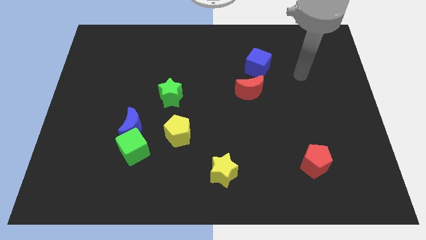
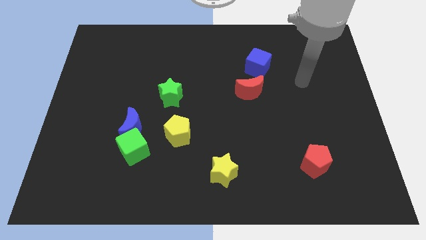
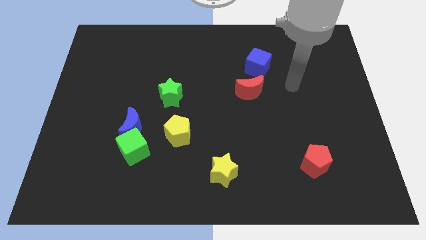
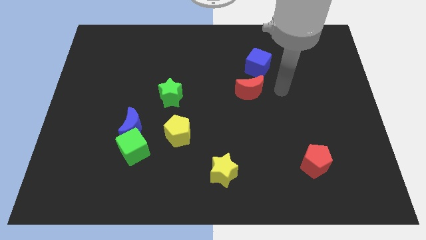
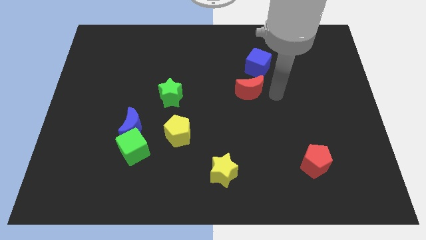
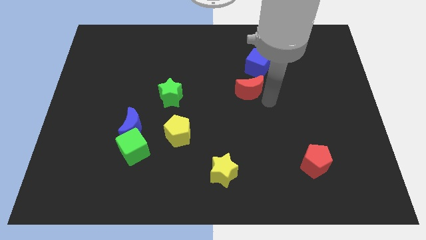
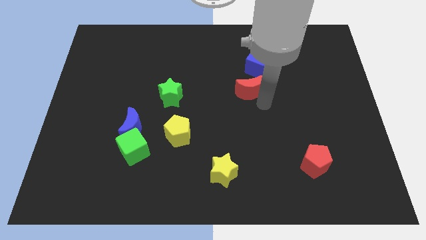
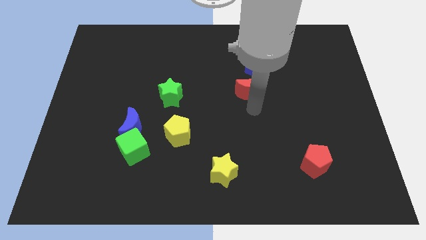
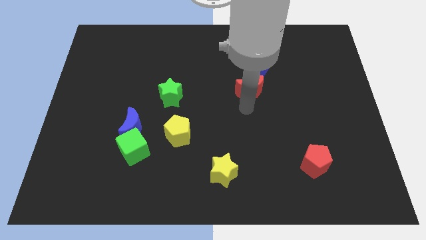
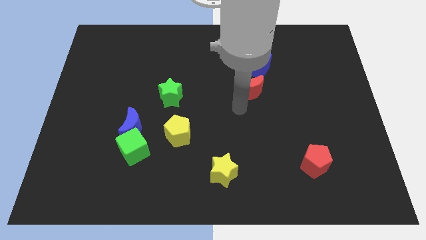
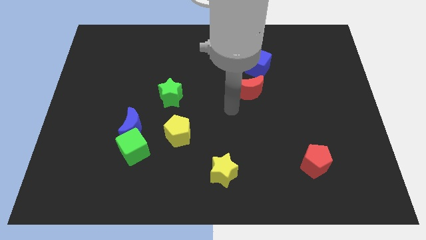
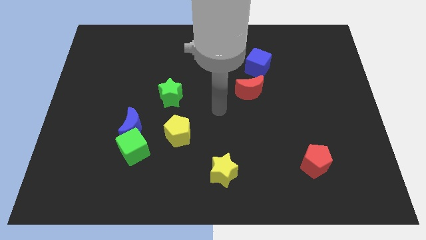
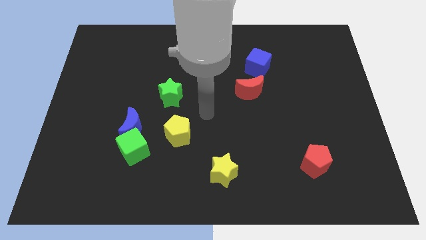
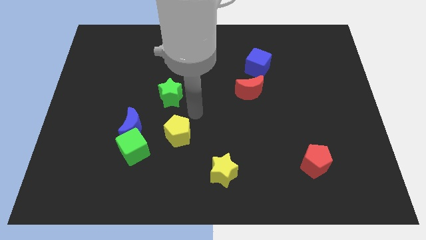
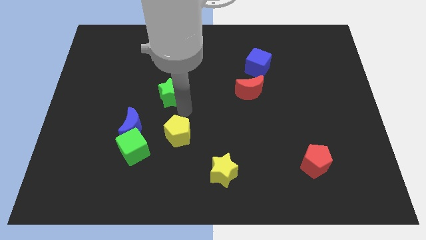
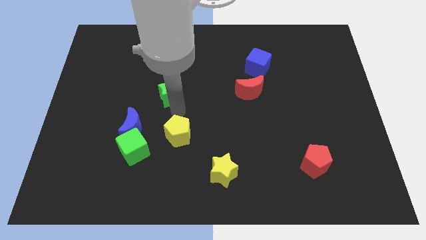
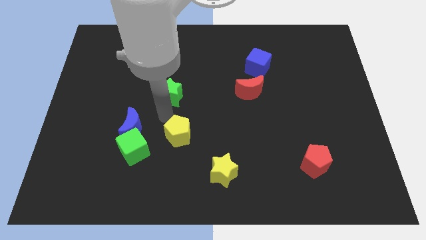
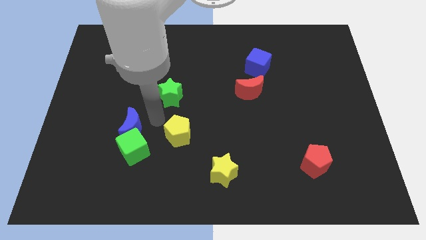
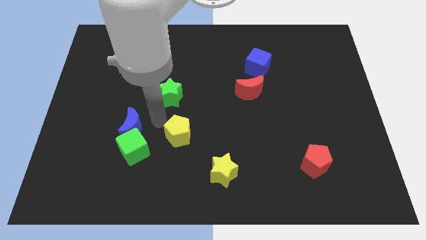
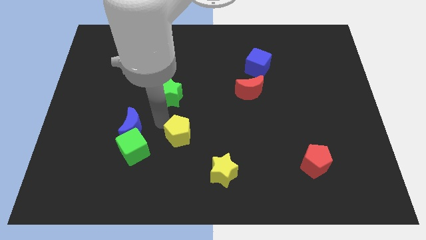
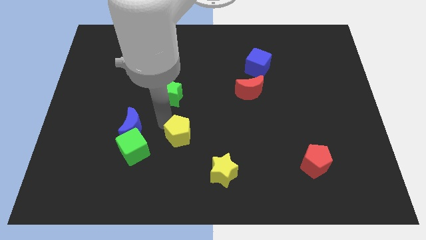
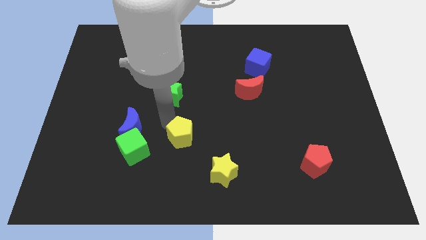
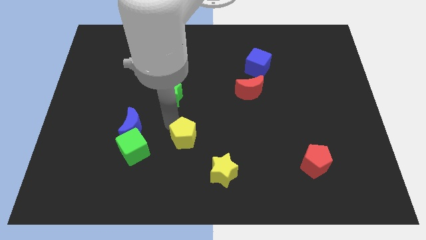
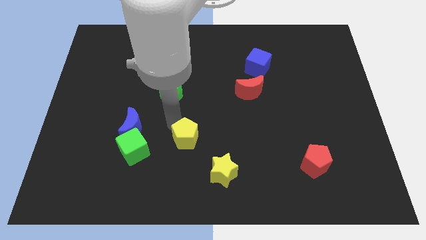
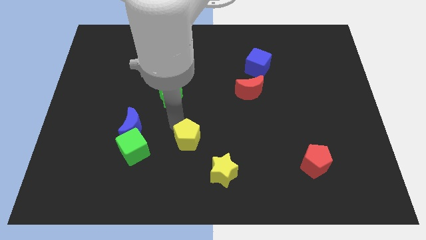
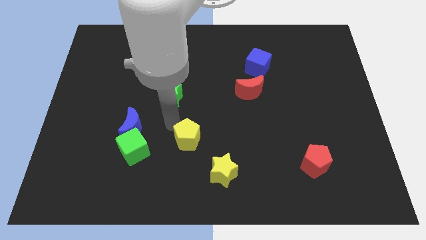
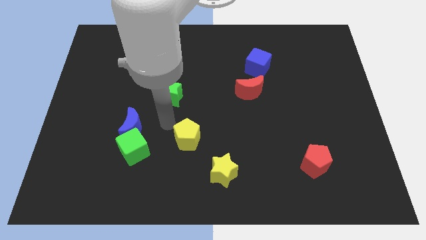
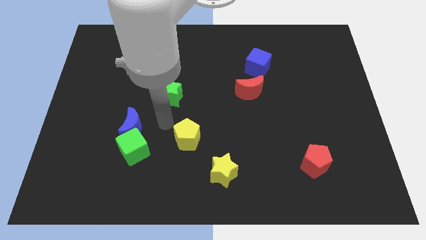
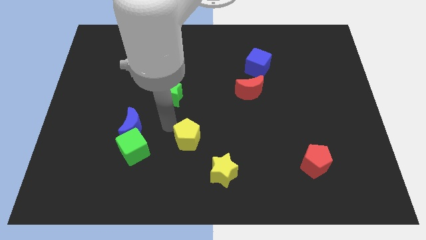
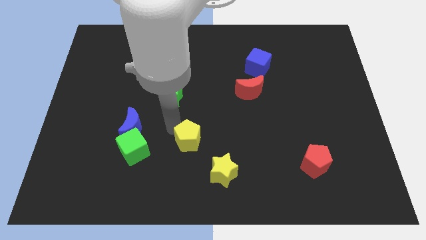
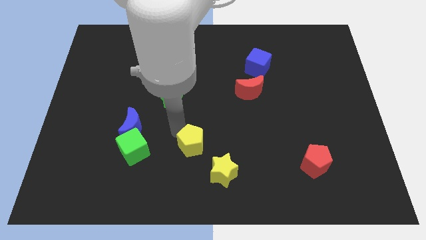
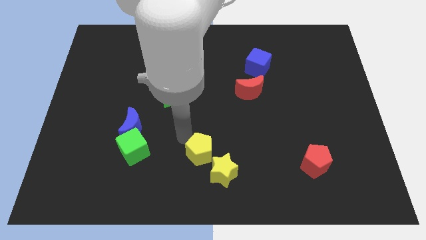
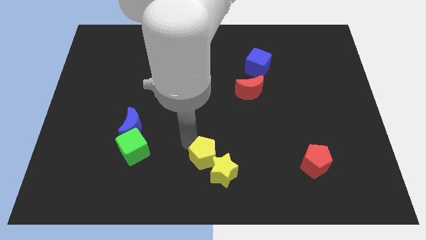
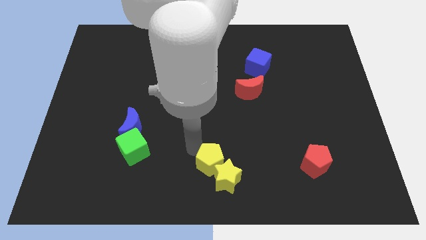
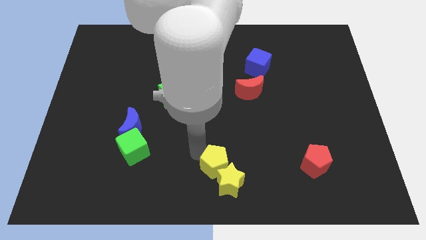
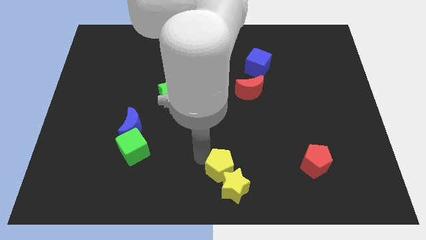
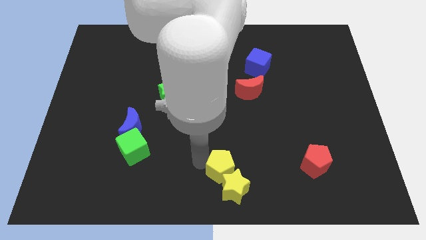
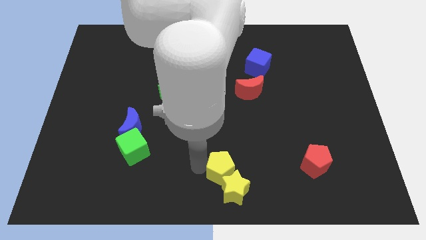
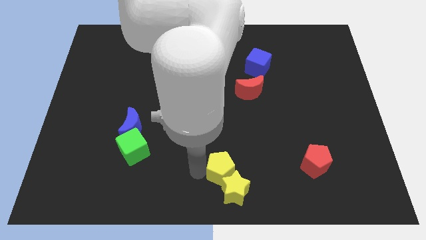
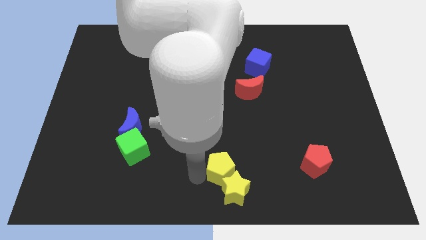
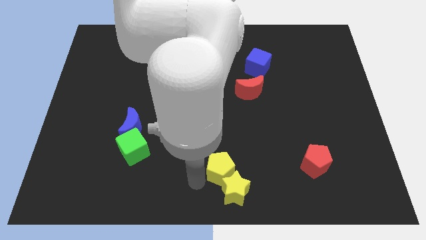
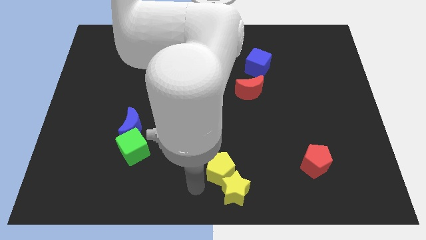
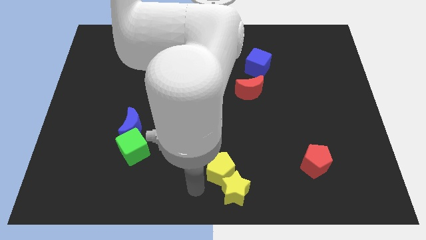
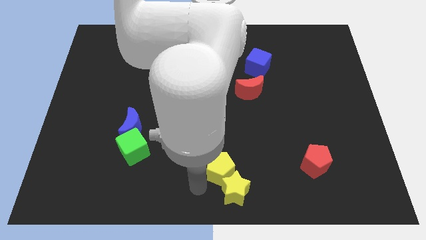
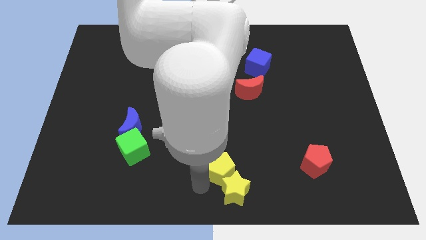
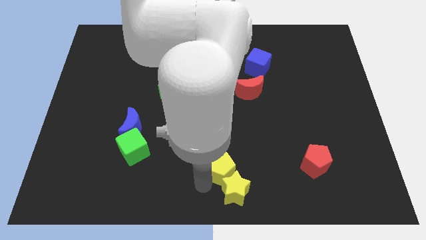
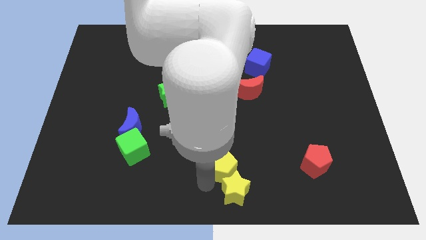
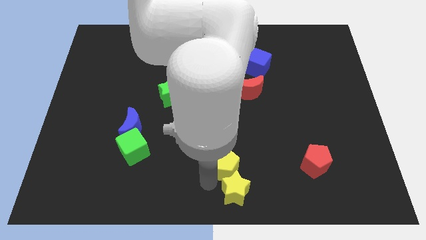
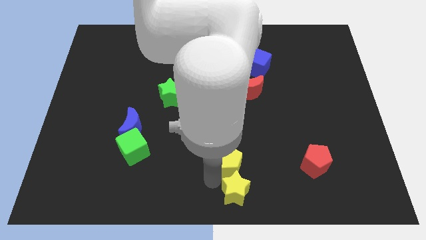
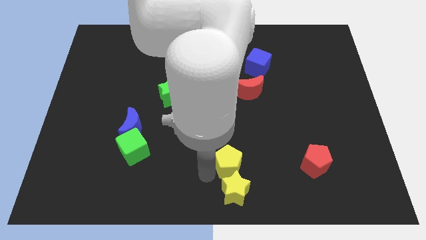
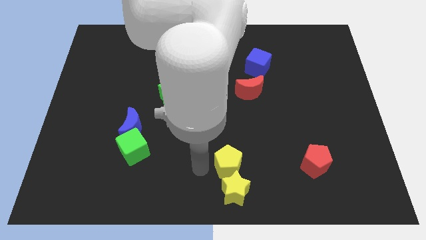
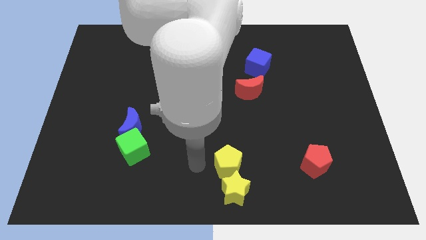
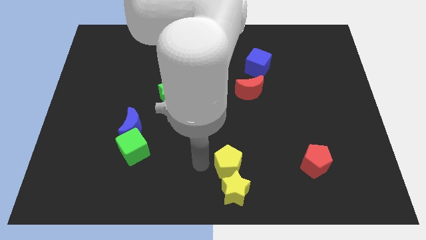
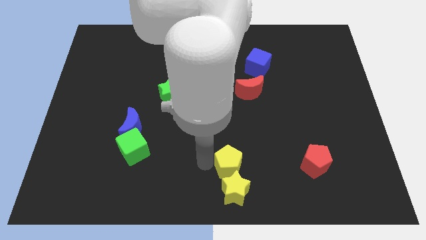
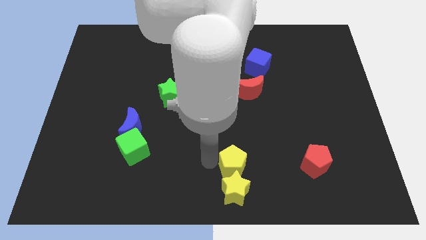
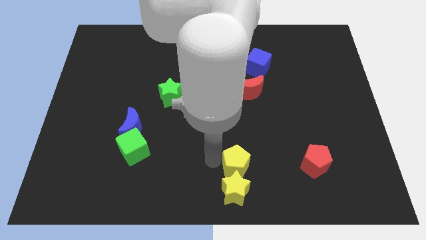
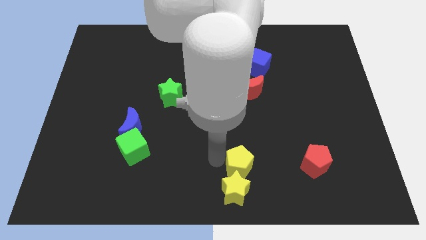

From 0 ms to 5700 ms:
move the yellow pentagon just left of the red pentagon

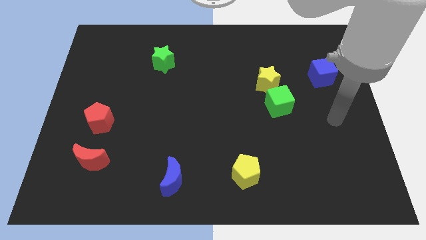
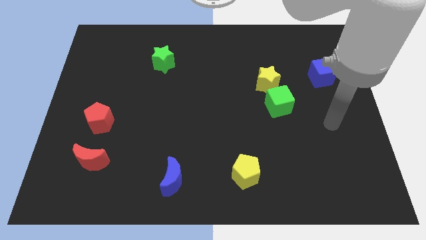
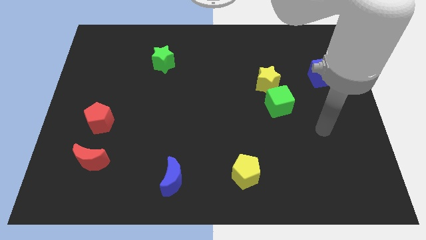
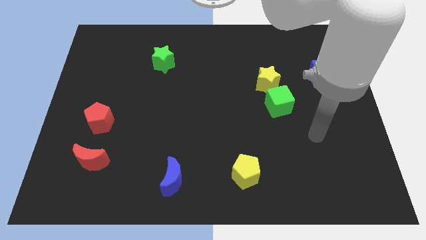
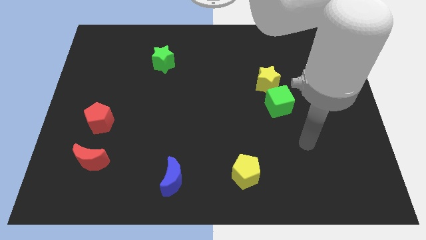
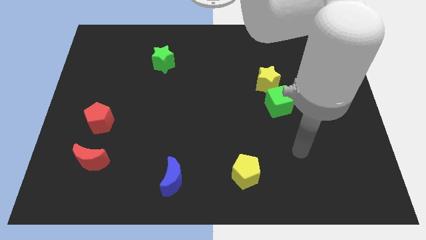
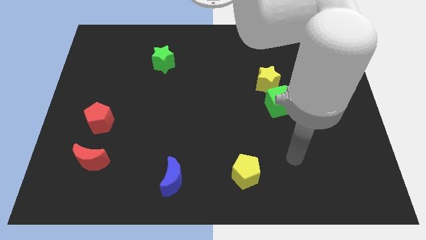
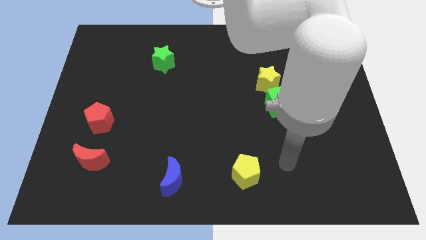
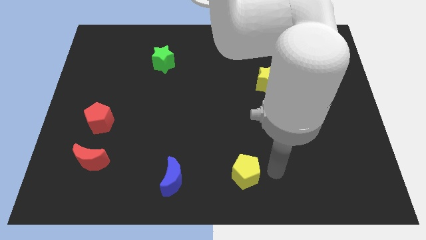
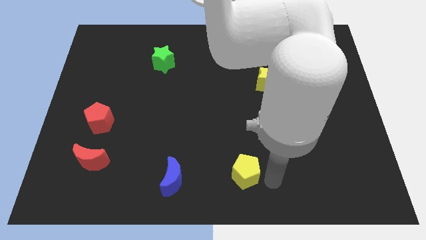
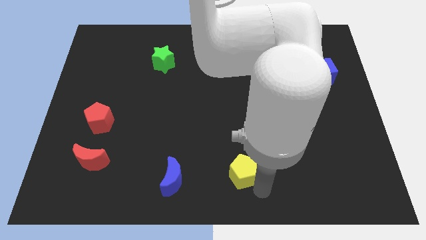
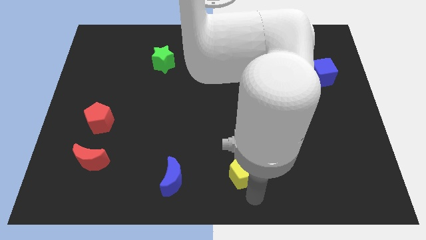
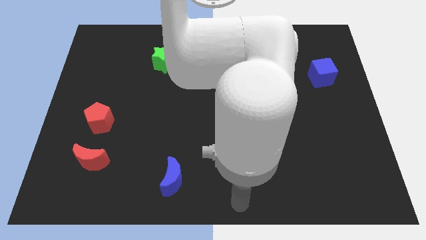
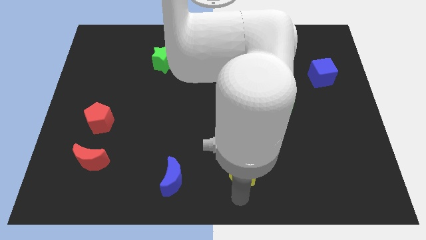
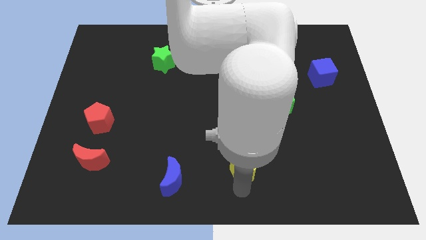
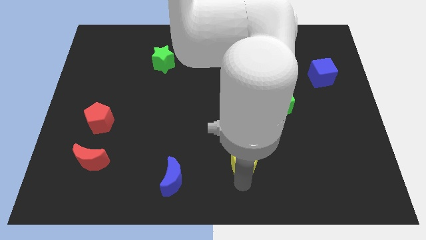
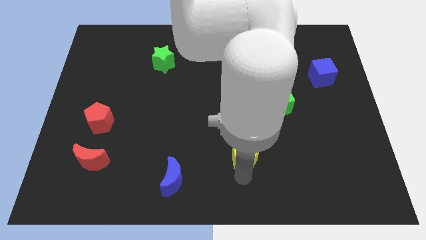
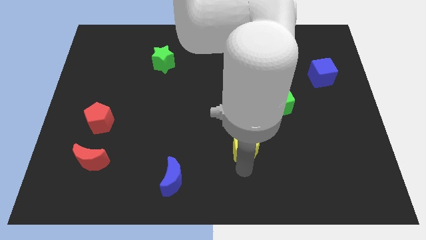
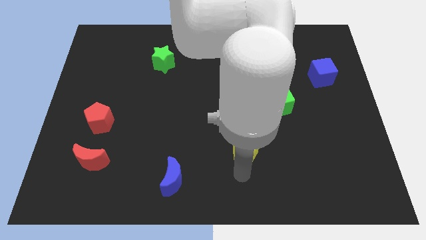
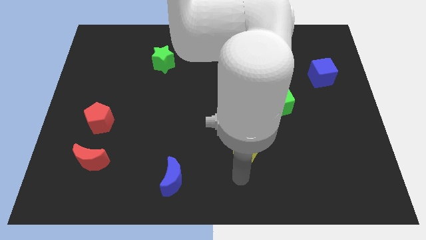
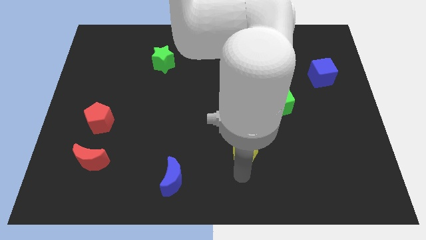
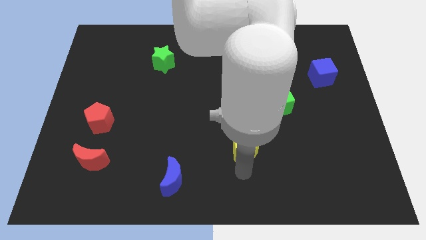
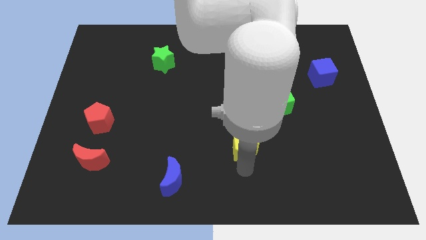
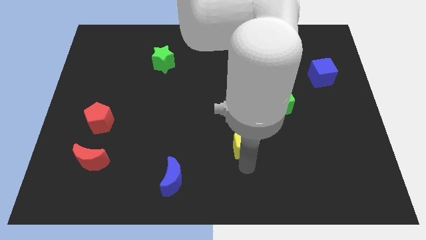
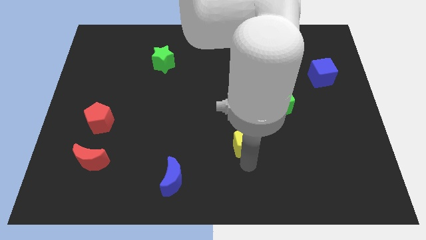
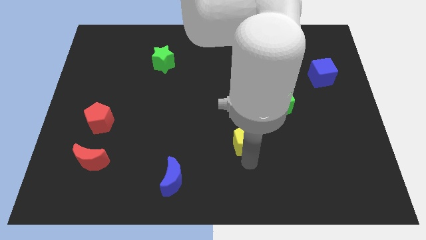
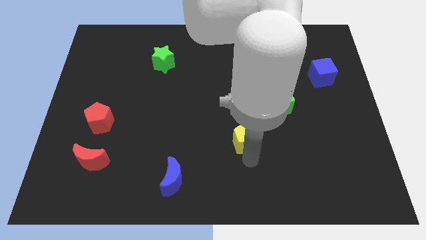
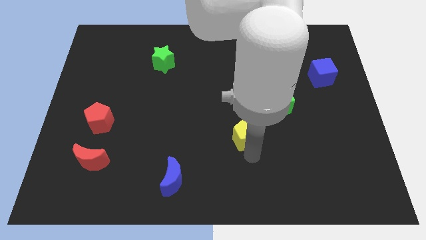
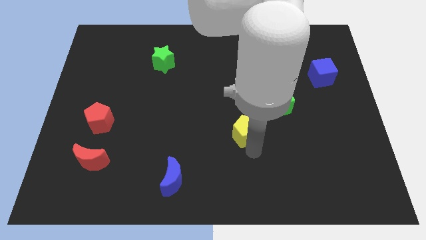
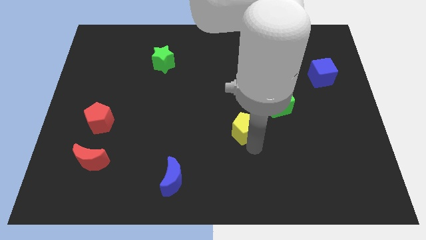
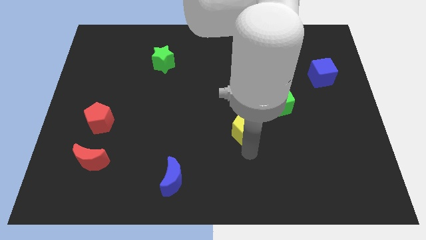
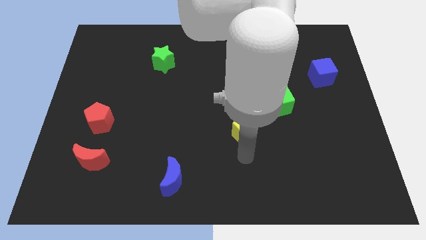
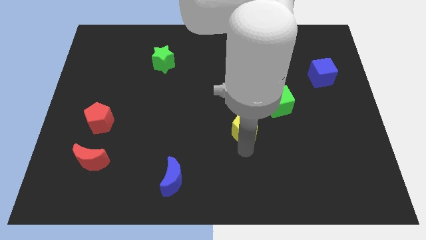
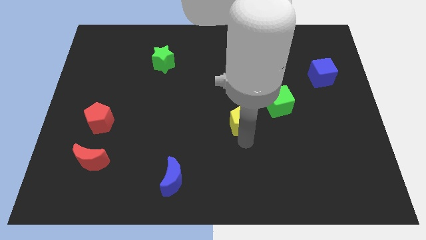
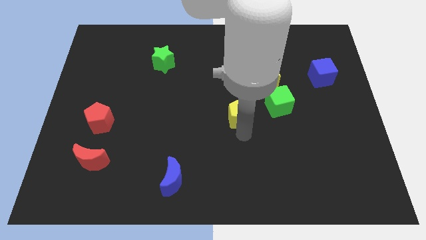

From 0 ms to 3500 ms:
put the yellow pentagon to the bottom left side of the yellow star
